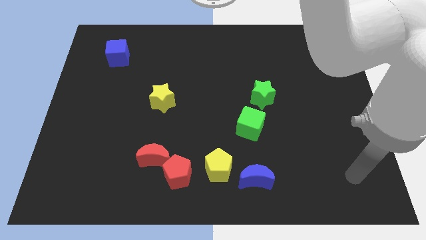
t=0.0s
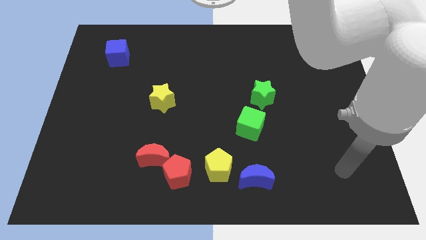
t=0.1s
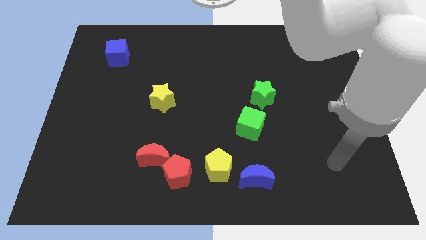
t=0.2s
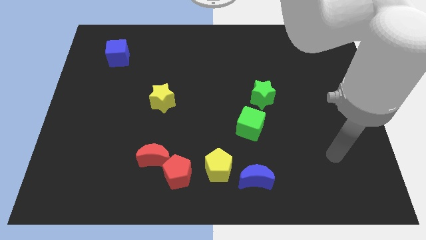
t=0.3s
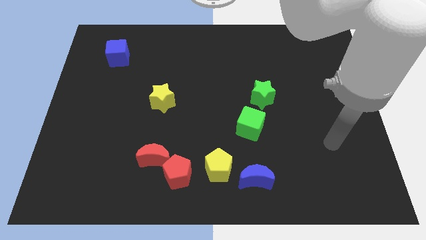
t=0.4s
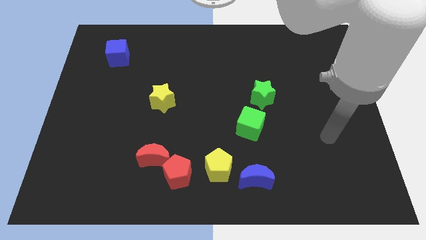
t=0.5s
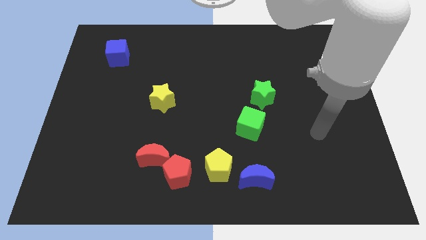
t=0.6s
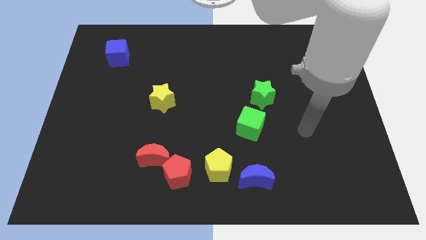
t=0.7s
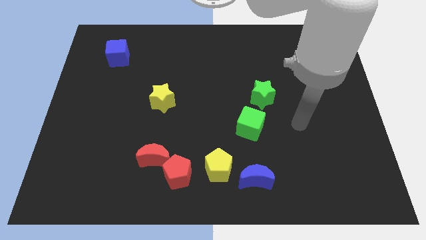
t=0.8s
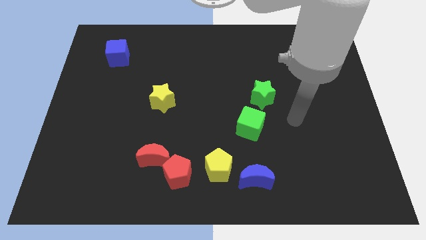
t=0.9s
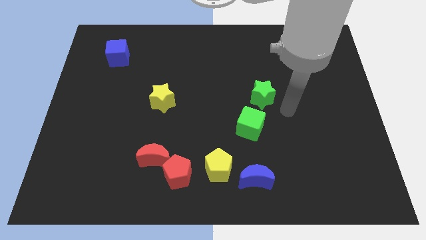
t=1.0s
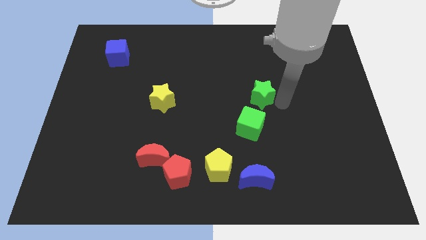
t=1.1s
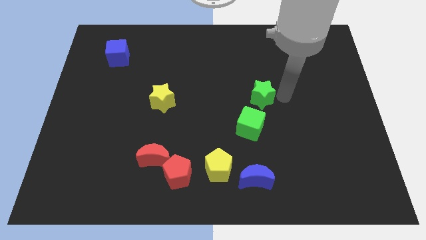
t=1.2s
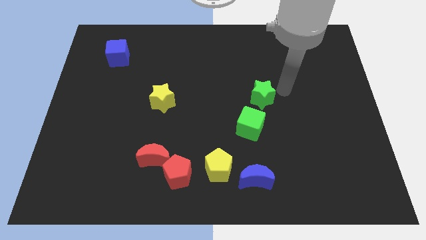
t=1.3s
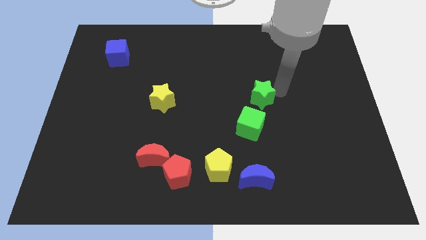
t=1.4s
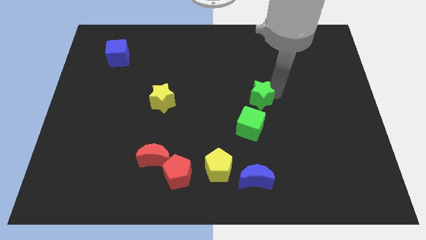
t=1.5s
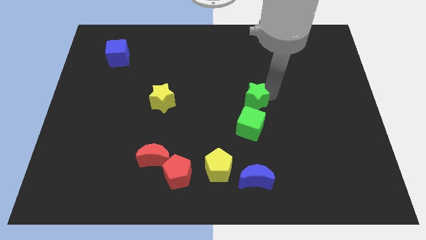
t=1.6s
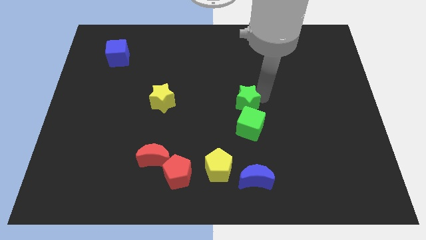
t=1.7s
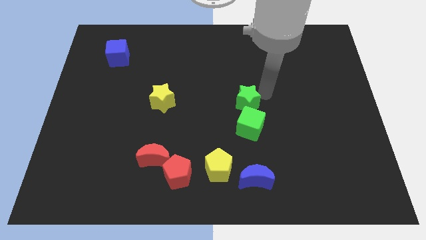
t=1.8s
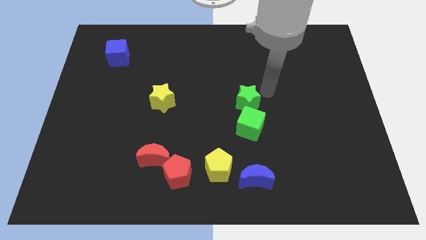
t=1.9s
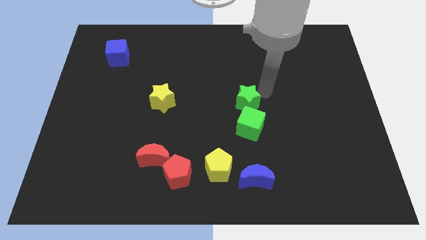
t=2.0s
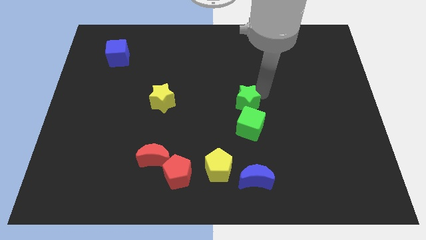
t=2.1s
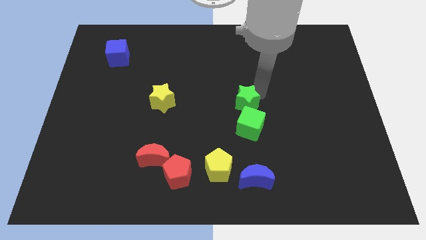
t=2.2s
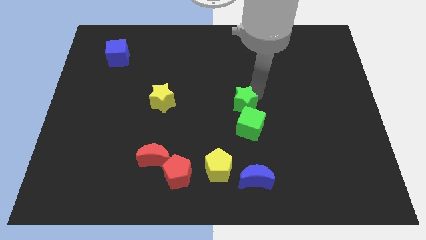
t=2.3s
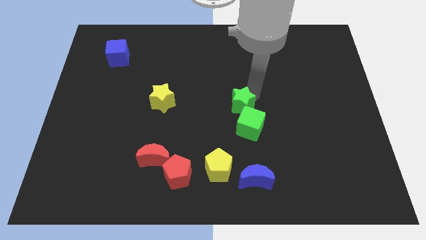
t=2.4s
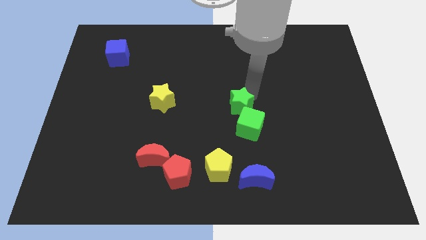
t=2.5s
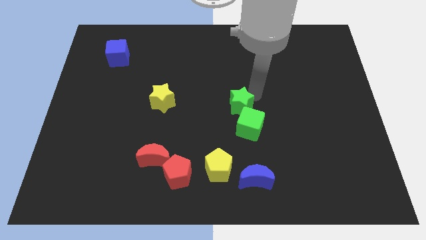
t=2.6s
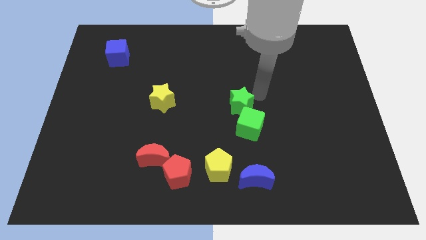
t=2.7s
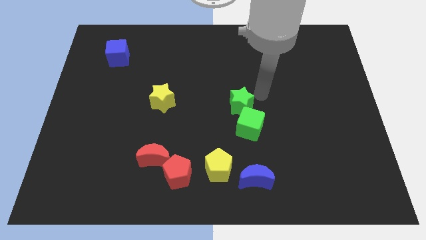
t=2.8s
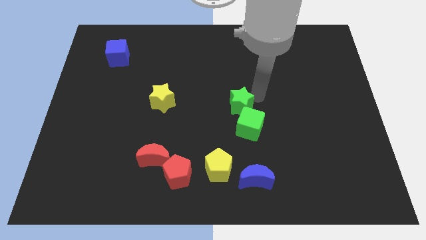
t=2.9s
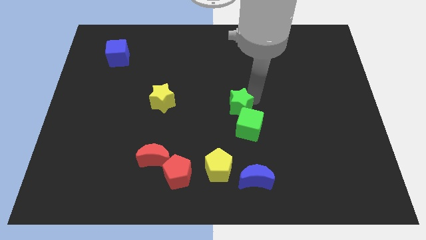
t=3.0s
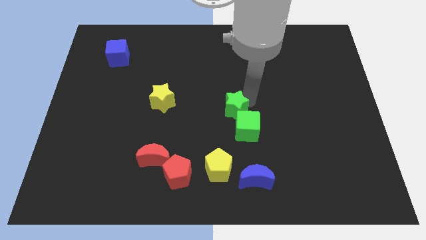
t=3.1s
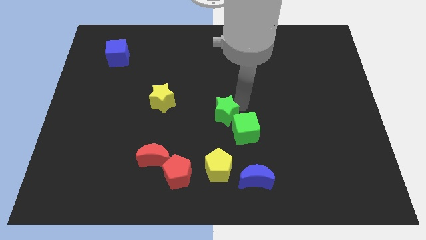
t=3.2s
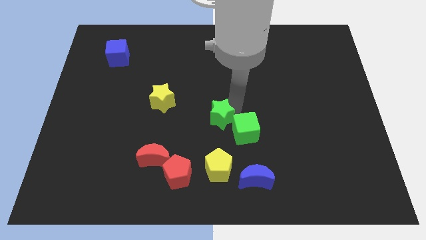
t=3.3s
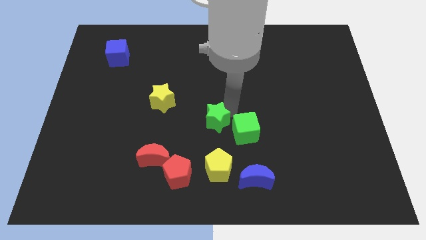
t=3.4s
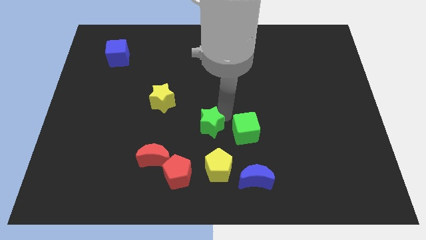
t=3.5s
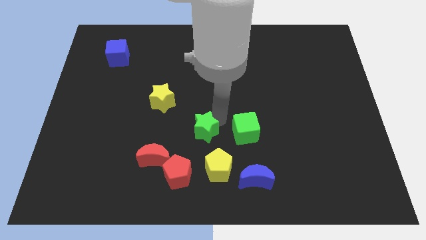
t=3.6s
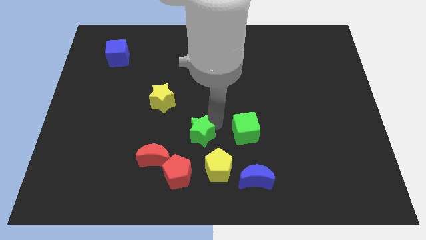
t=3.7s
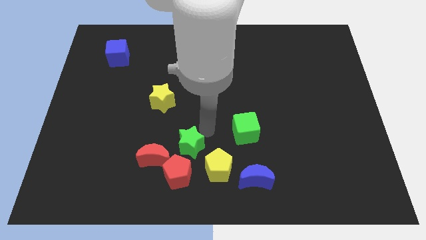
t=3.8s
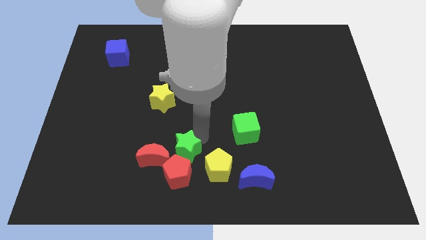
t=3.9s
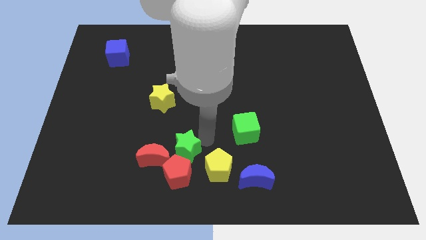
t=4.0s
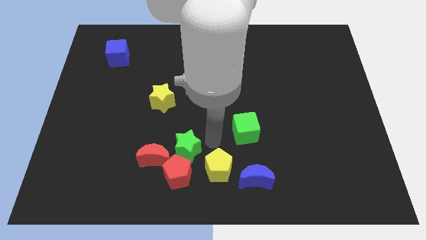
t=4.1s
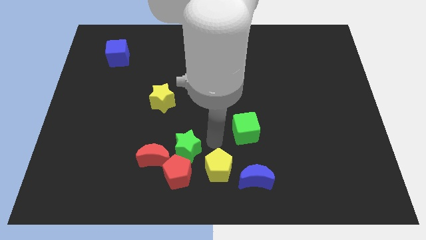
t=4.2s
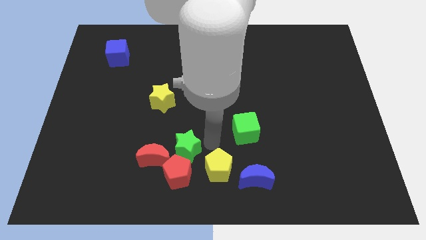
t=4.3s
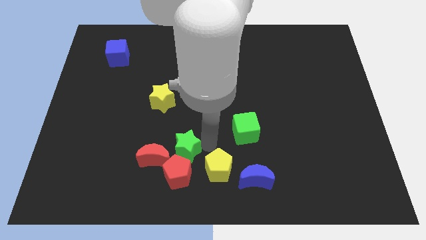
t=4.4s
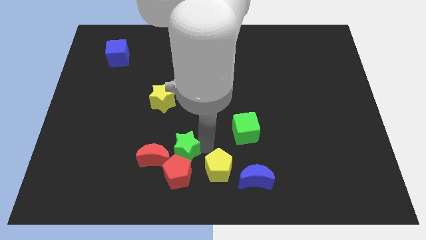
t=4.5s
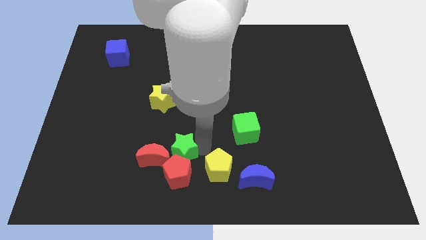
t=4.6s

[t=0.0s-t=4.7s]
put the green star to the red moon

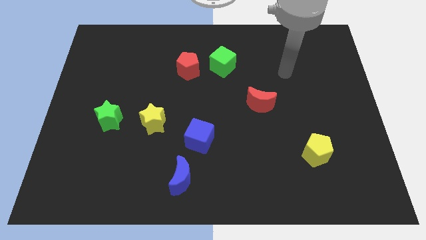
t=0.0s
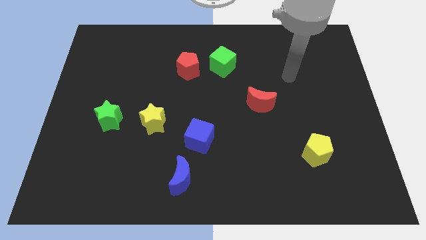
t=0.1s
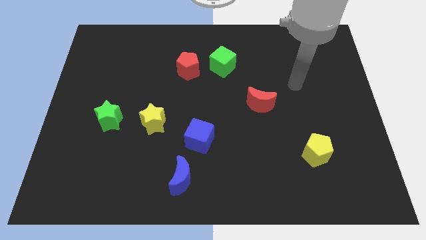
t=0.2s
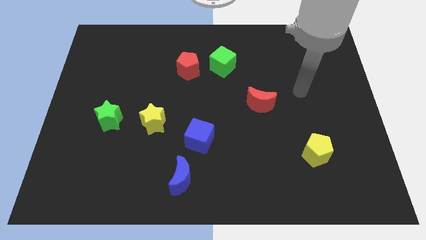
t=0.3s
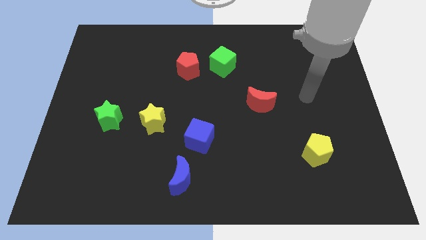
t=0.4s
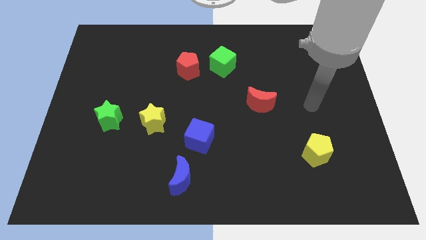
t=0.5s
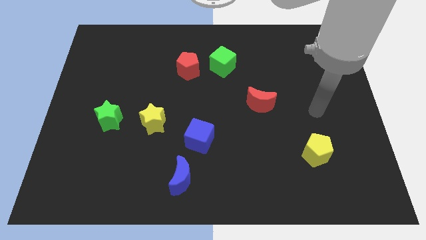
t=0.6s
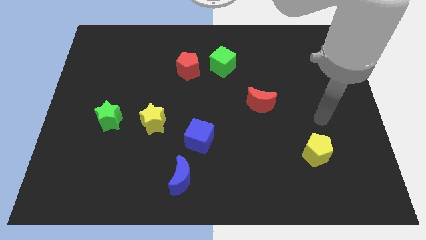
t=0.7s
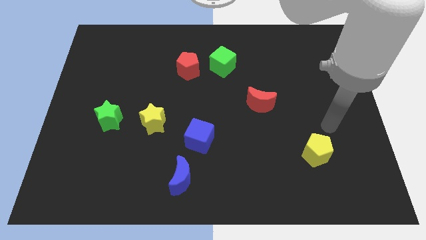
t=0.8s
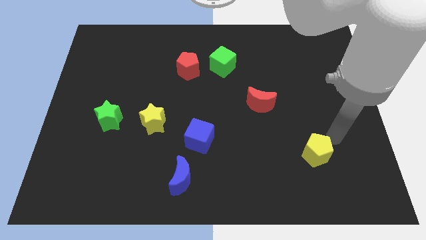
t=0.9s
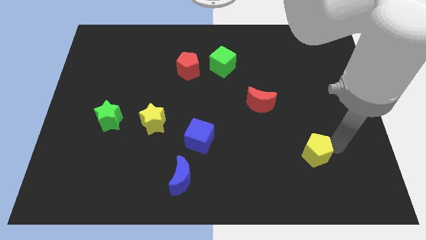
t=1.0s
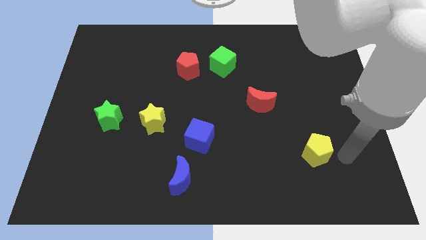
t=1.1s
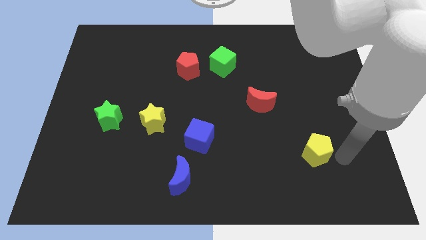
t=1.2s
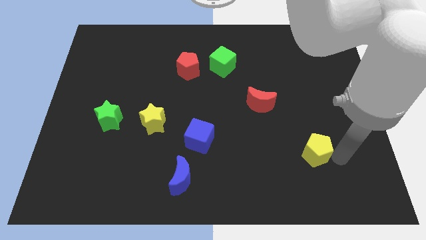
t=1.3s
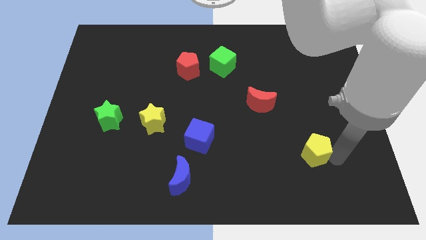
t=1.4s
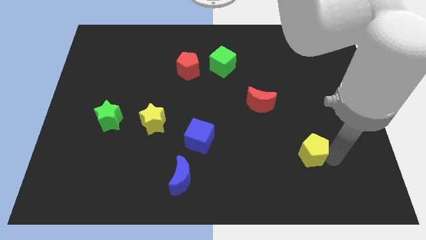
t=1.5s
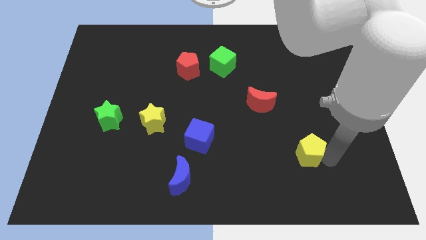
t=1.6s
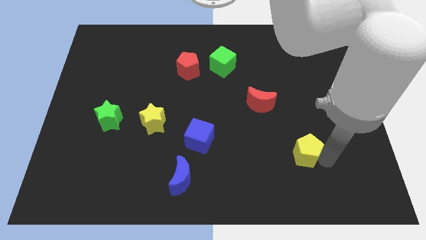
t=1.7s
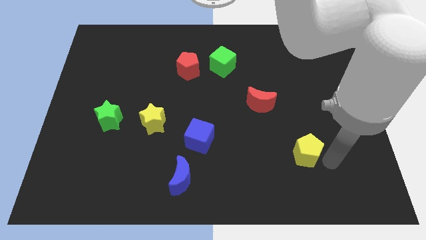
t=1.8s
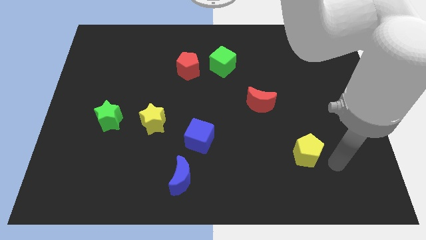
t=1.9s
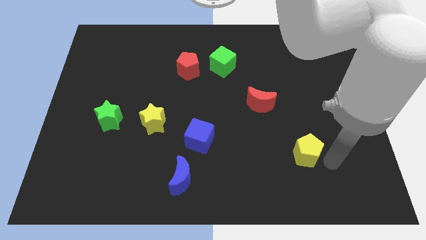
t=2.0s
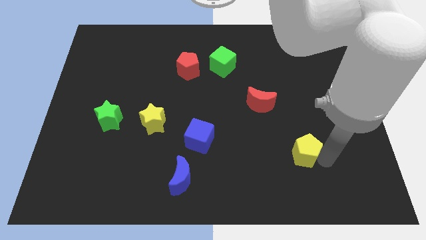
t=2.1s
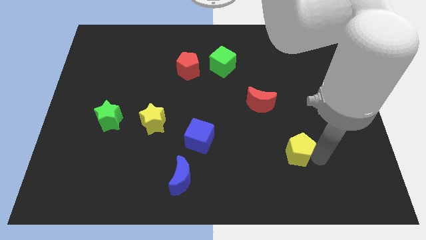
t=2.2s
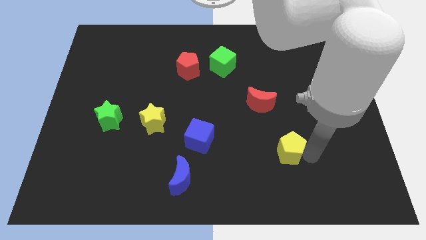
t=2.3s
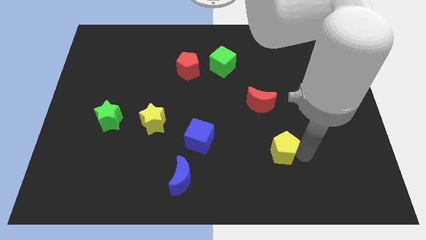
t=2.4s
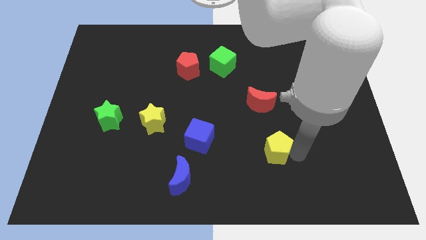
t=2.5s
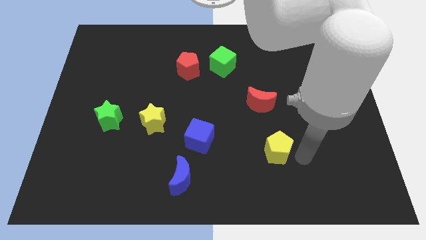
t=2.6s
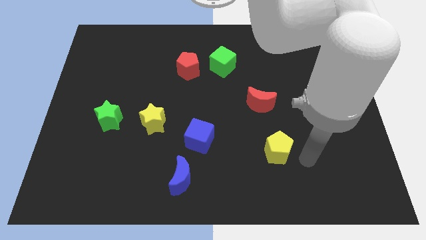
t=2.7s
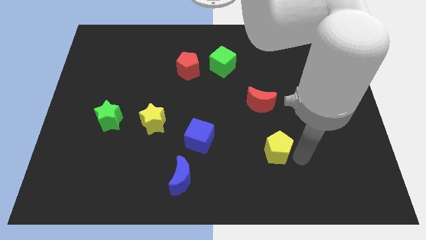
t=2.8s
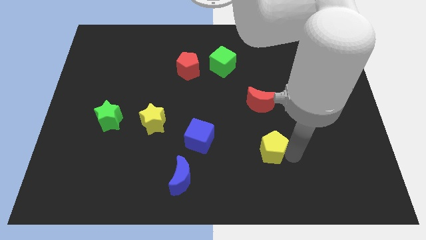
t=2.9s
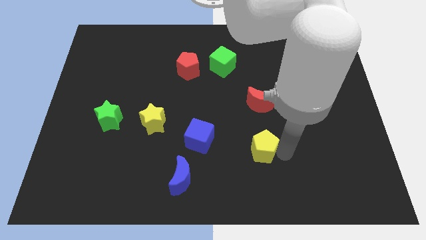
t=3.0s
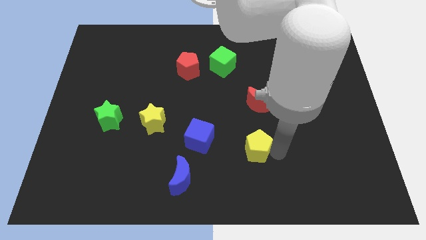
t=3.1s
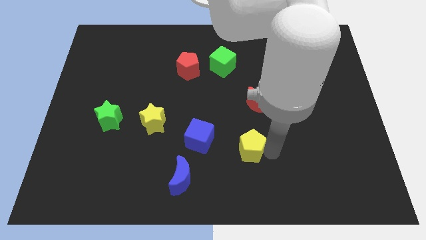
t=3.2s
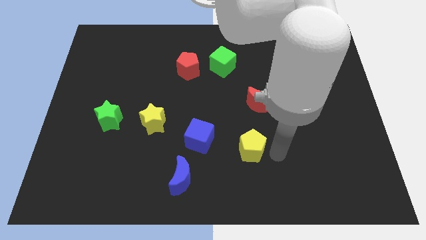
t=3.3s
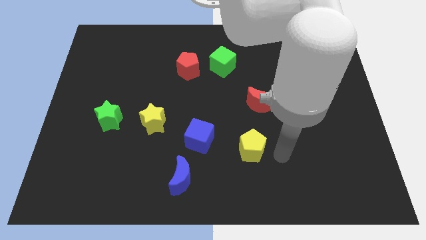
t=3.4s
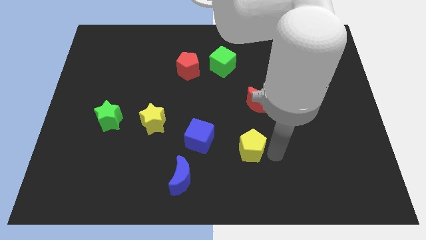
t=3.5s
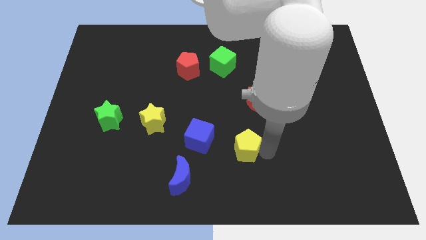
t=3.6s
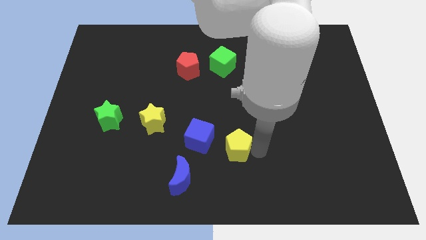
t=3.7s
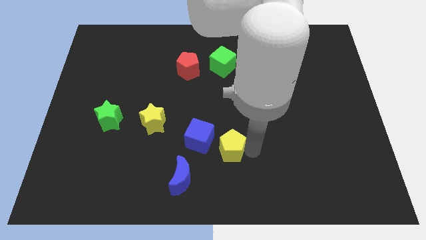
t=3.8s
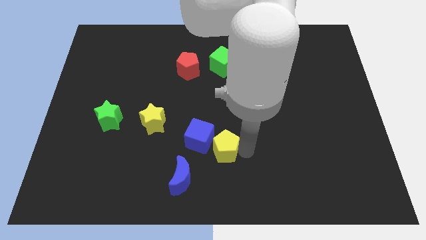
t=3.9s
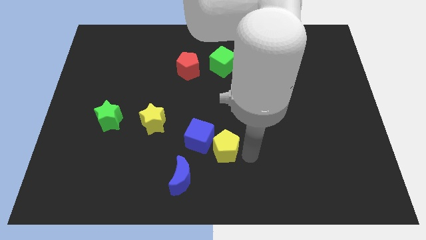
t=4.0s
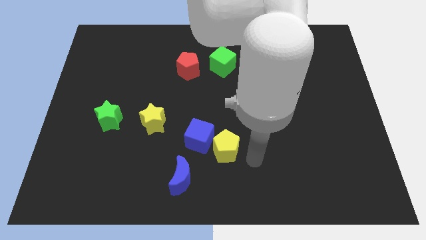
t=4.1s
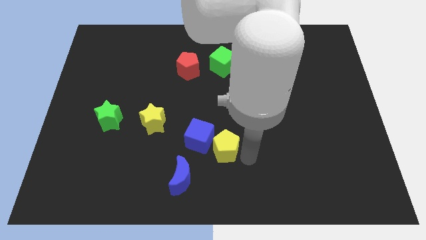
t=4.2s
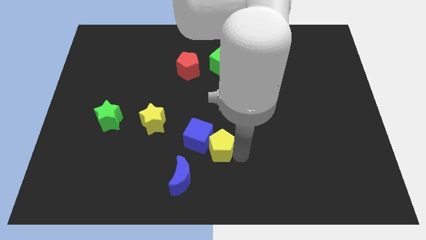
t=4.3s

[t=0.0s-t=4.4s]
push the yellow pentagon next to the blue cube
